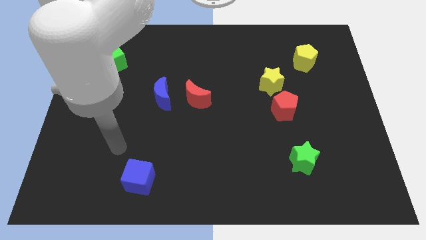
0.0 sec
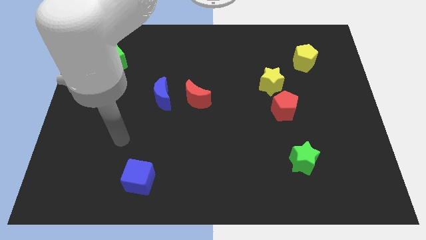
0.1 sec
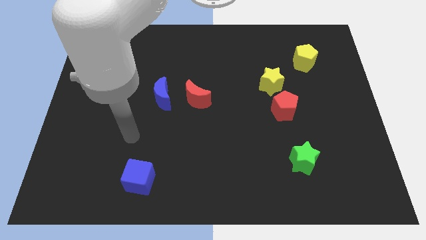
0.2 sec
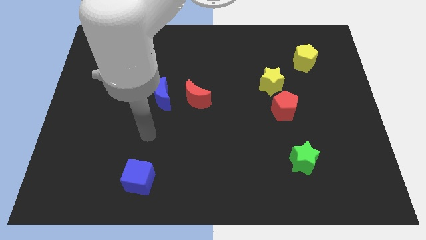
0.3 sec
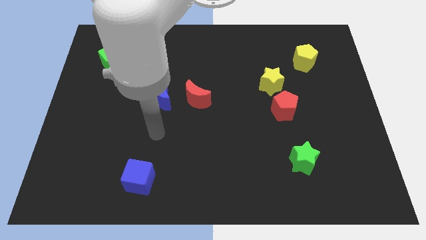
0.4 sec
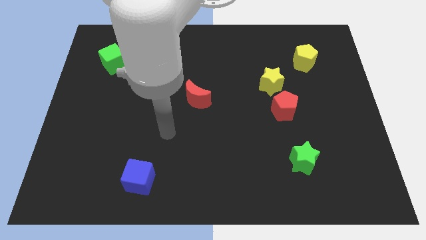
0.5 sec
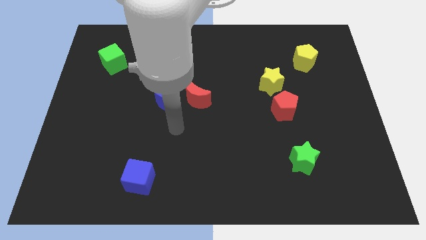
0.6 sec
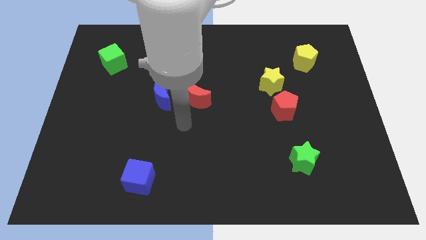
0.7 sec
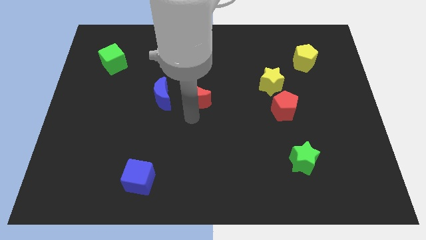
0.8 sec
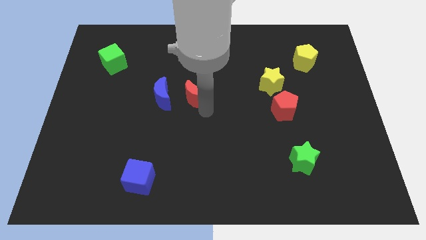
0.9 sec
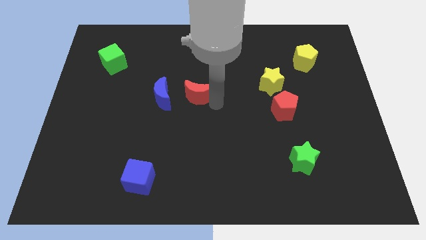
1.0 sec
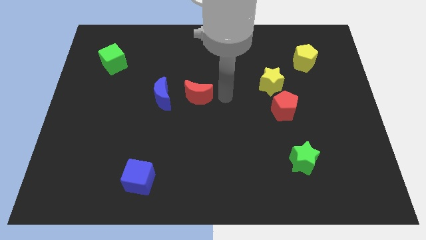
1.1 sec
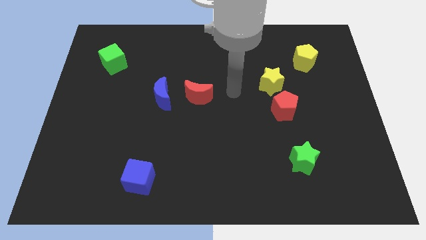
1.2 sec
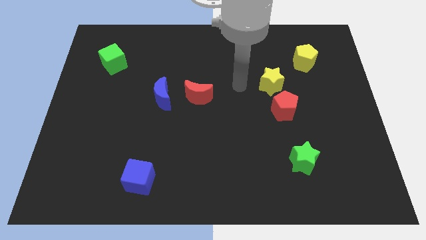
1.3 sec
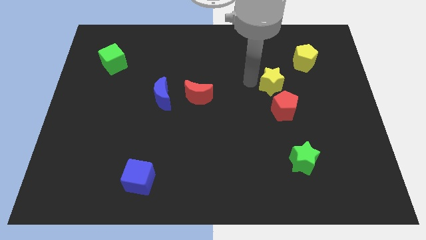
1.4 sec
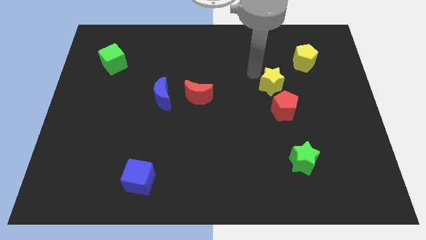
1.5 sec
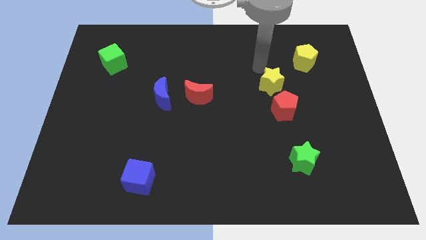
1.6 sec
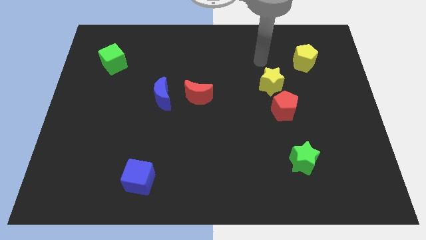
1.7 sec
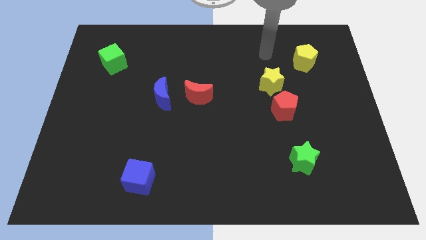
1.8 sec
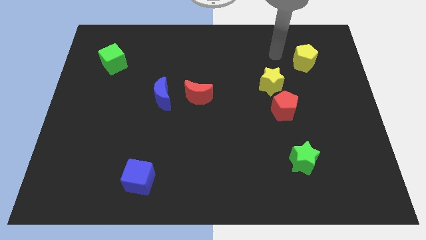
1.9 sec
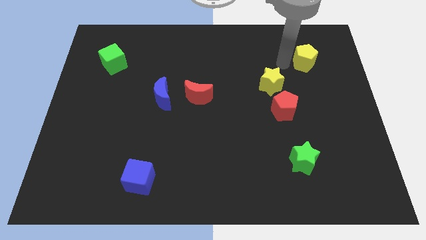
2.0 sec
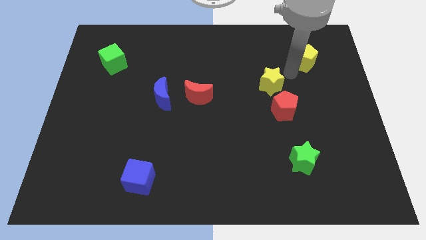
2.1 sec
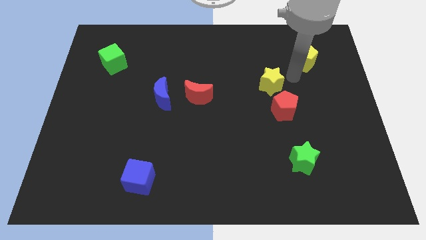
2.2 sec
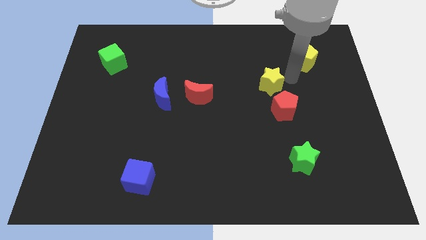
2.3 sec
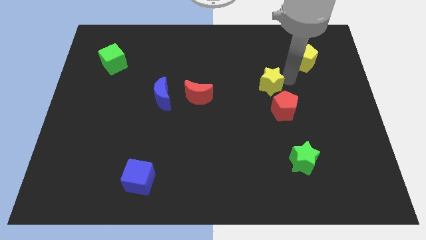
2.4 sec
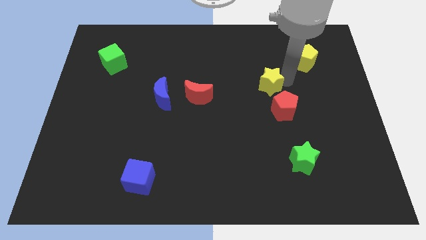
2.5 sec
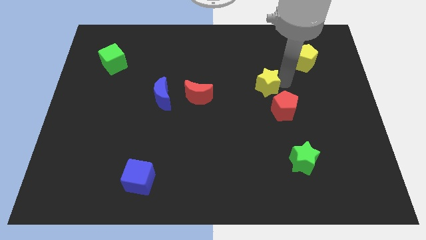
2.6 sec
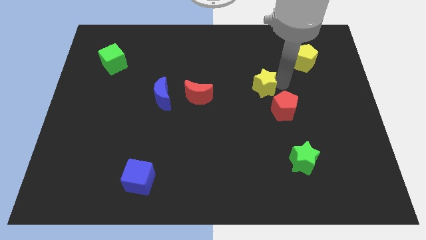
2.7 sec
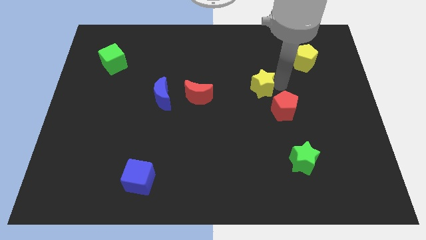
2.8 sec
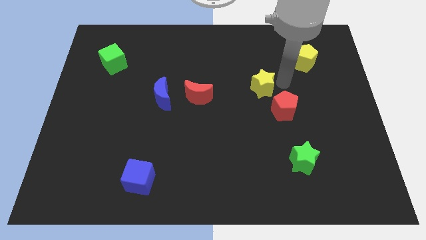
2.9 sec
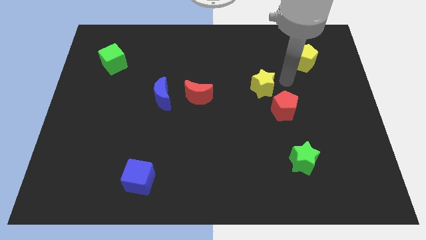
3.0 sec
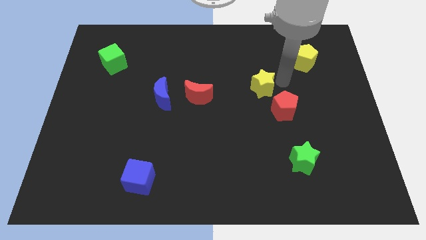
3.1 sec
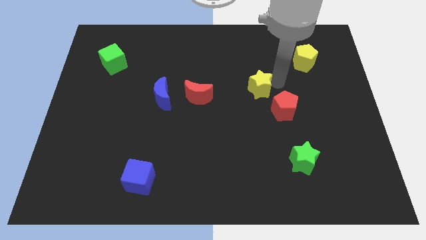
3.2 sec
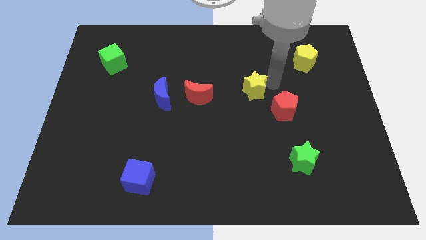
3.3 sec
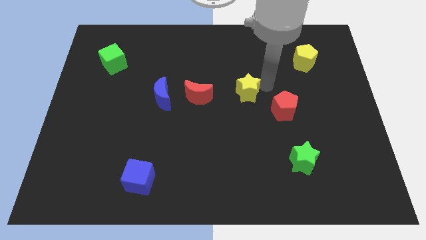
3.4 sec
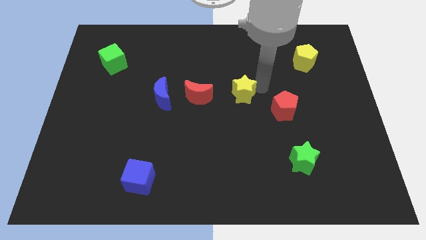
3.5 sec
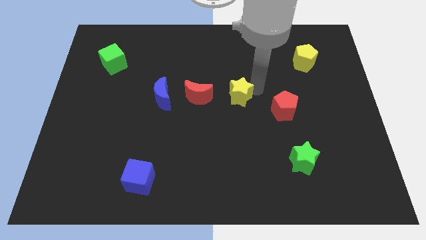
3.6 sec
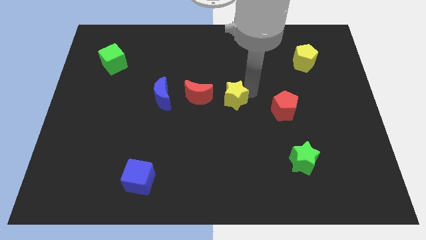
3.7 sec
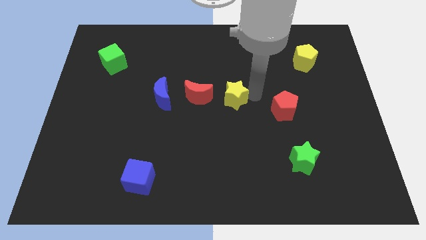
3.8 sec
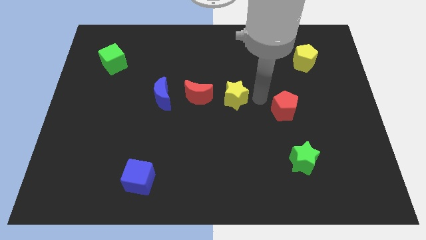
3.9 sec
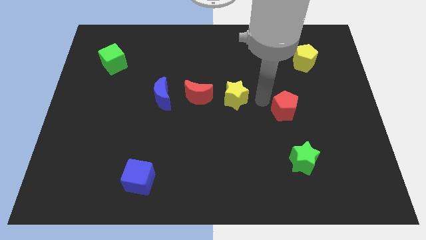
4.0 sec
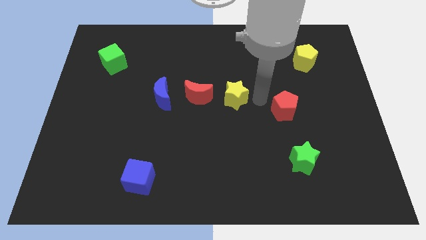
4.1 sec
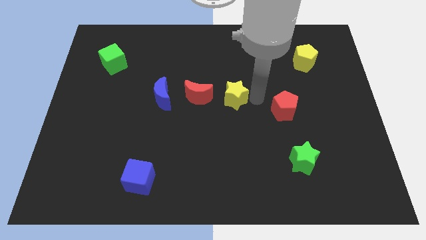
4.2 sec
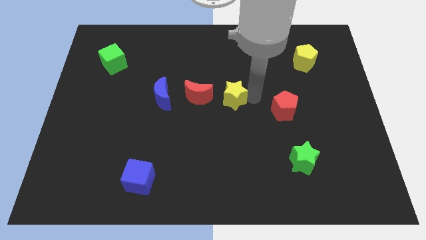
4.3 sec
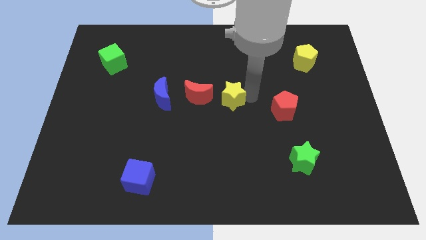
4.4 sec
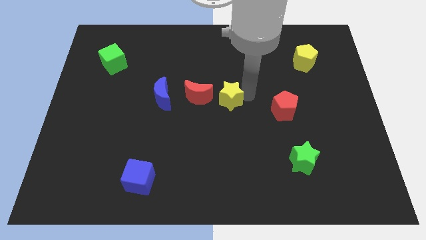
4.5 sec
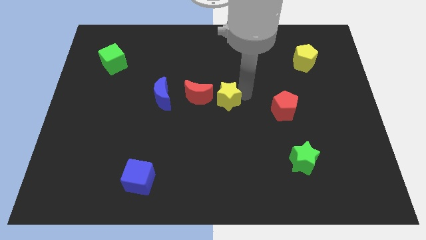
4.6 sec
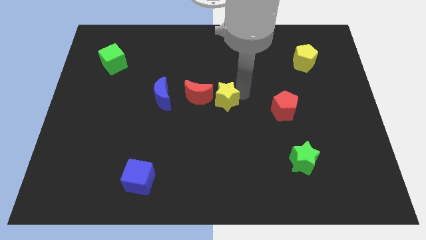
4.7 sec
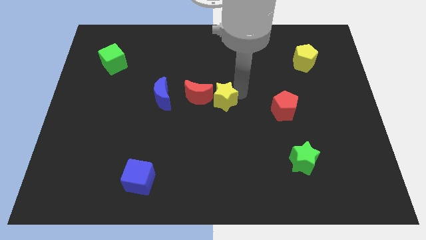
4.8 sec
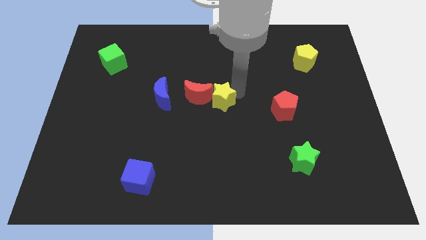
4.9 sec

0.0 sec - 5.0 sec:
put the yellow star towards the red moon
